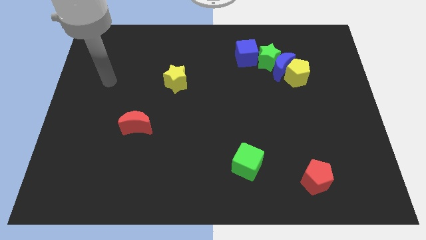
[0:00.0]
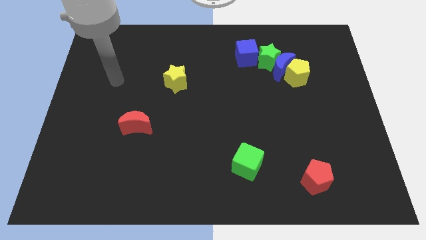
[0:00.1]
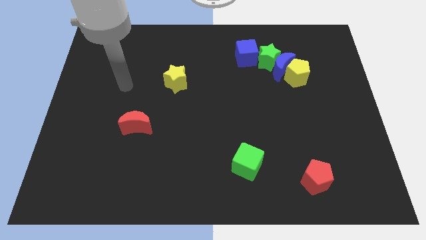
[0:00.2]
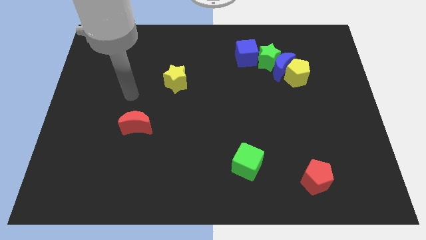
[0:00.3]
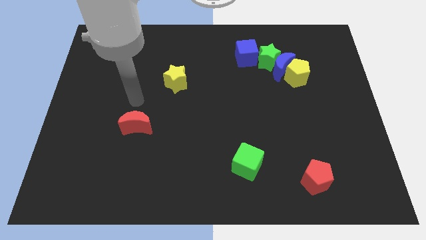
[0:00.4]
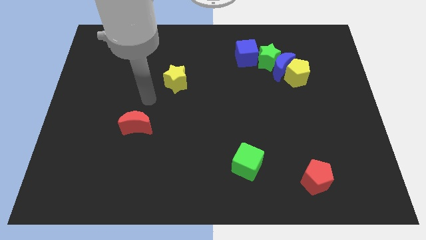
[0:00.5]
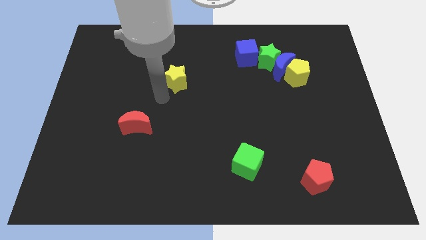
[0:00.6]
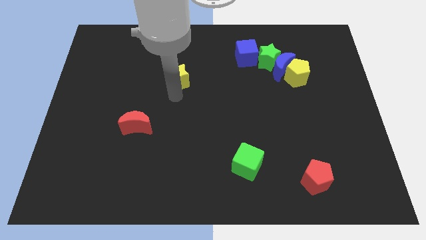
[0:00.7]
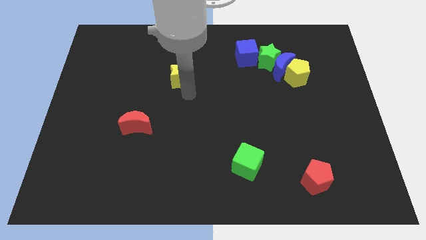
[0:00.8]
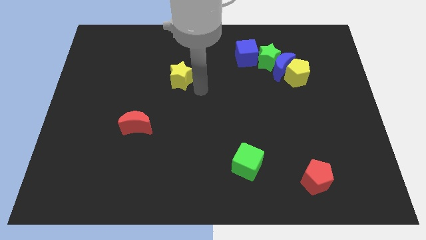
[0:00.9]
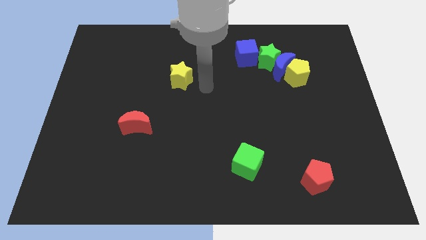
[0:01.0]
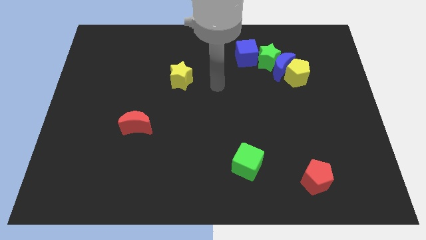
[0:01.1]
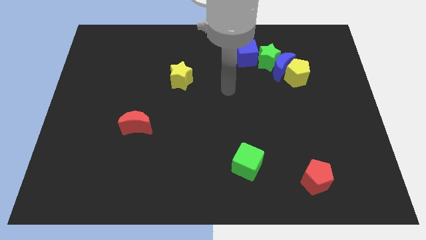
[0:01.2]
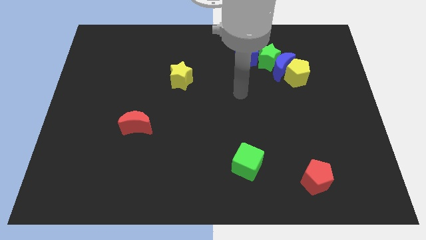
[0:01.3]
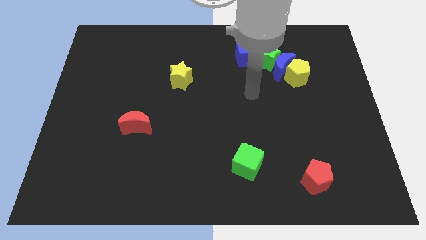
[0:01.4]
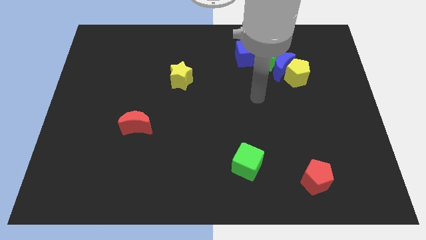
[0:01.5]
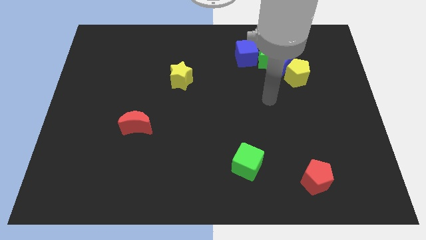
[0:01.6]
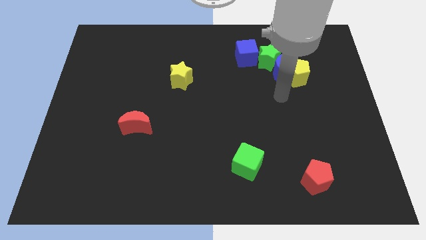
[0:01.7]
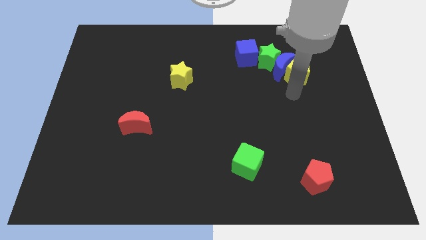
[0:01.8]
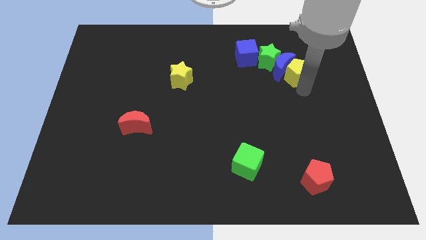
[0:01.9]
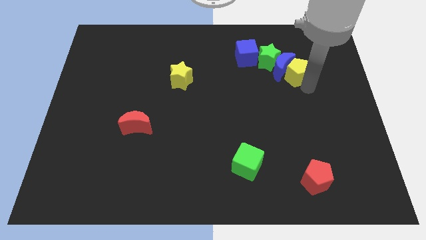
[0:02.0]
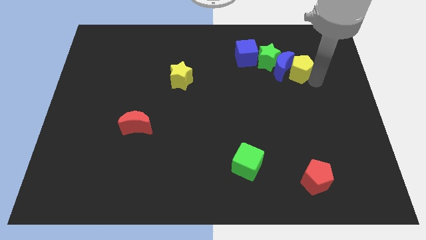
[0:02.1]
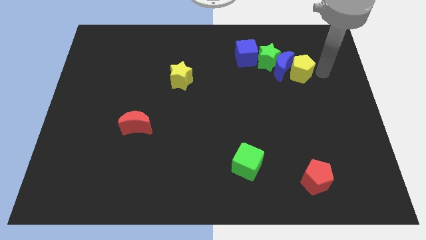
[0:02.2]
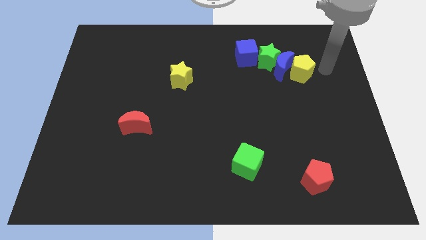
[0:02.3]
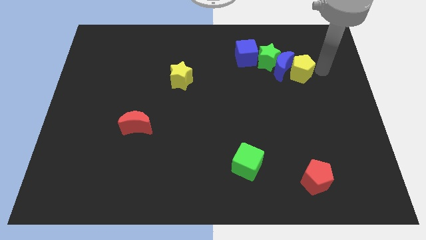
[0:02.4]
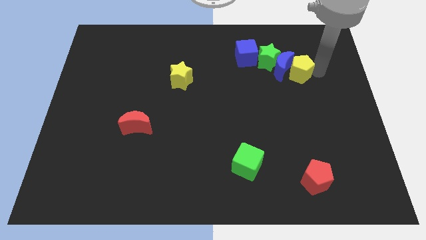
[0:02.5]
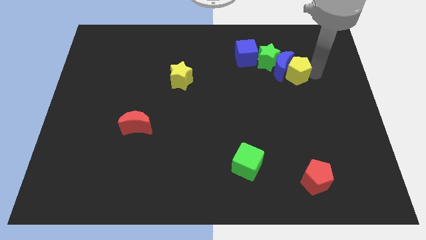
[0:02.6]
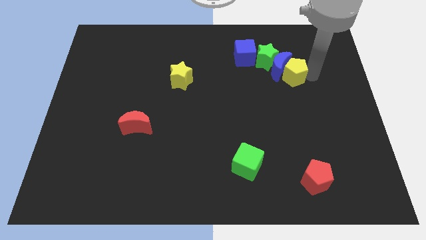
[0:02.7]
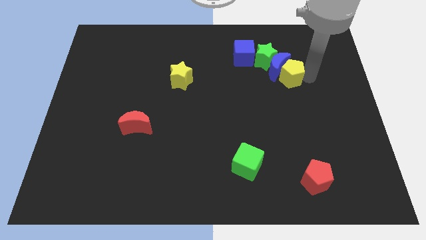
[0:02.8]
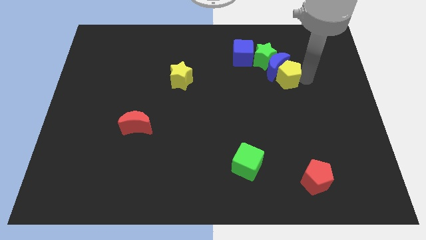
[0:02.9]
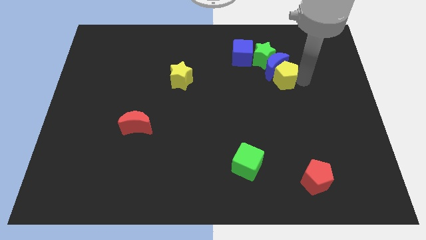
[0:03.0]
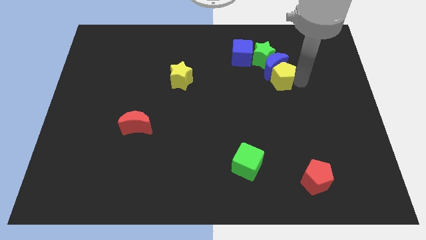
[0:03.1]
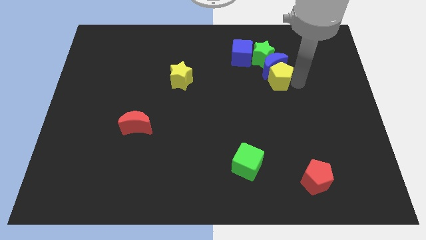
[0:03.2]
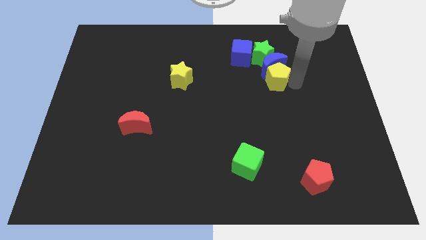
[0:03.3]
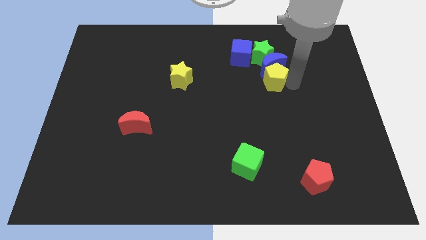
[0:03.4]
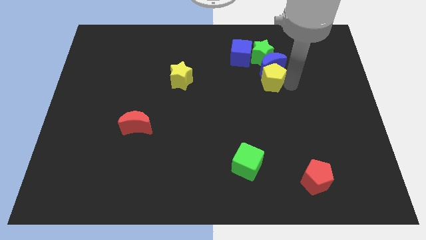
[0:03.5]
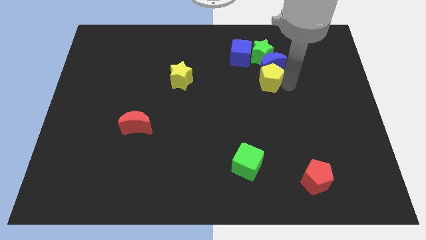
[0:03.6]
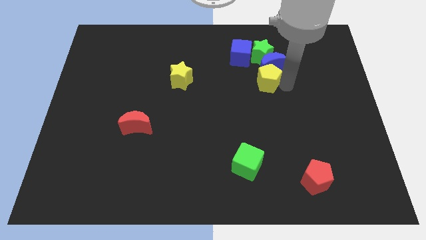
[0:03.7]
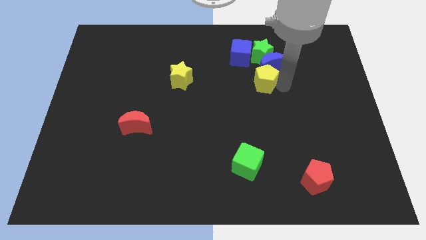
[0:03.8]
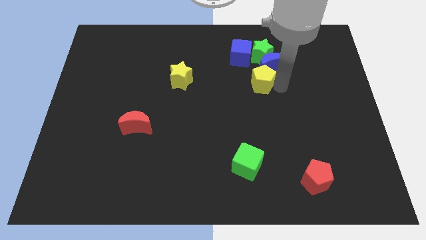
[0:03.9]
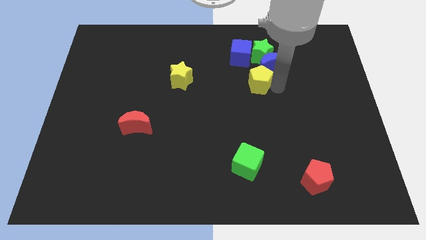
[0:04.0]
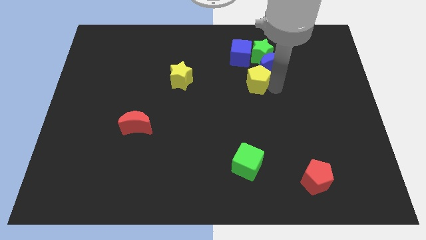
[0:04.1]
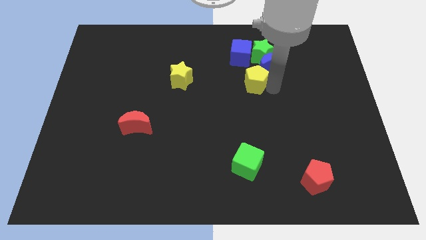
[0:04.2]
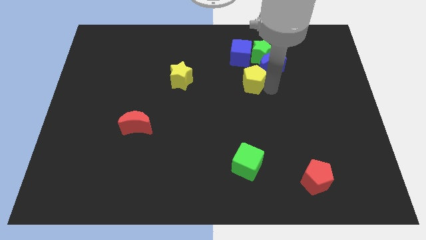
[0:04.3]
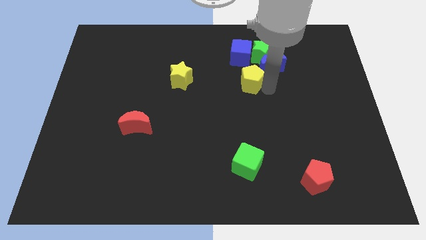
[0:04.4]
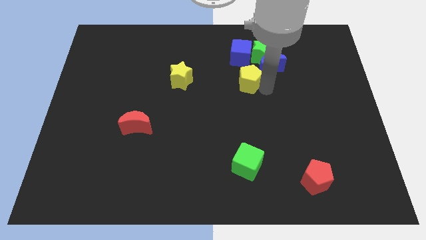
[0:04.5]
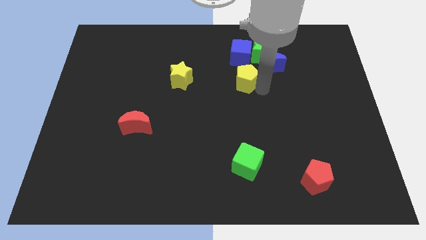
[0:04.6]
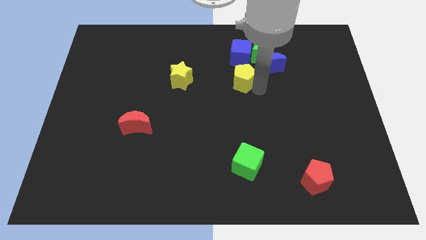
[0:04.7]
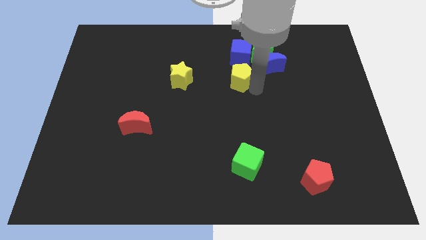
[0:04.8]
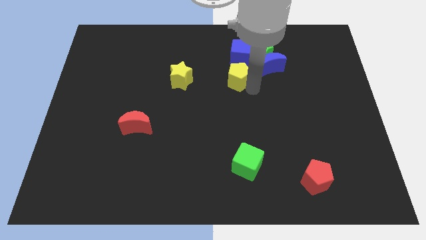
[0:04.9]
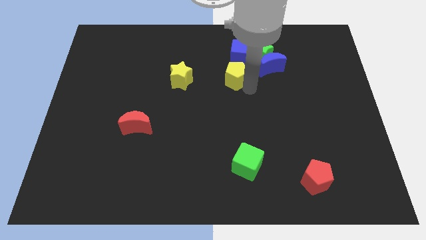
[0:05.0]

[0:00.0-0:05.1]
move the yellow pentagon diagonally down and to the left of the blue cube

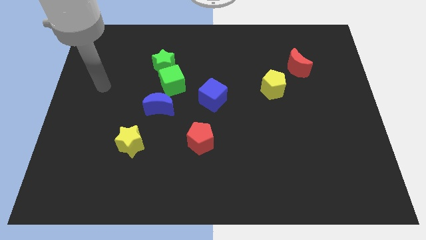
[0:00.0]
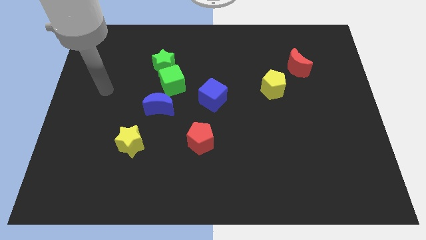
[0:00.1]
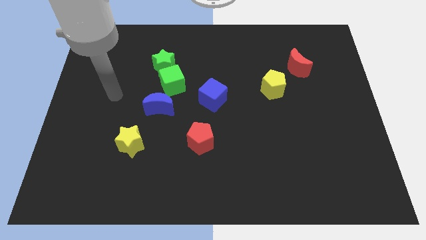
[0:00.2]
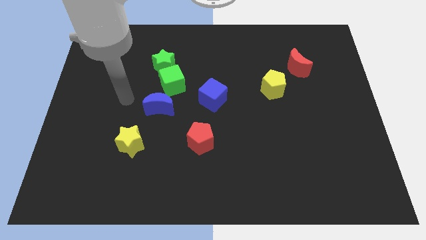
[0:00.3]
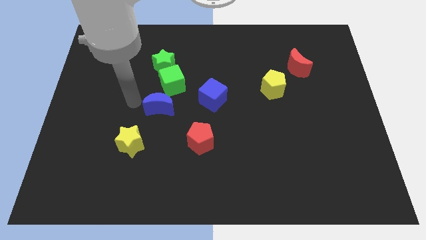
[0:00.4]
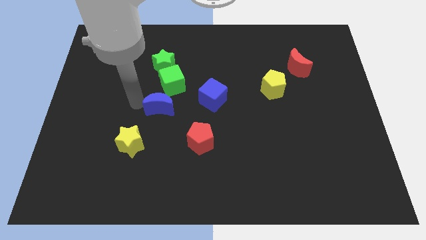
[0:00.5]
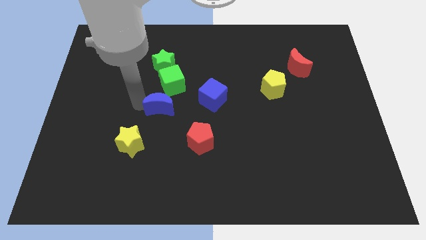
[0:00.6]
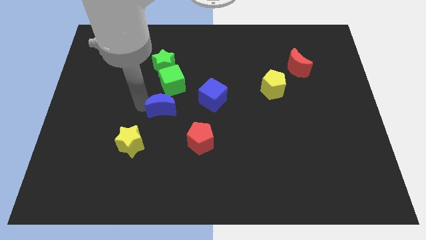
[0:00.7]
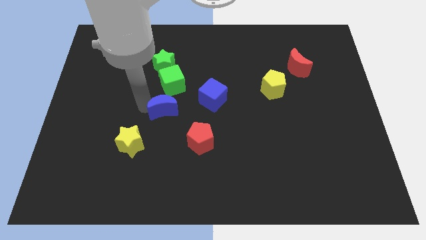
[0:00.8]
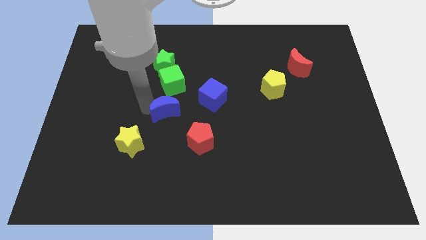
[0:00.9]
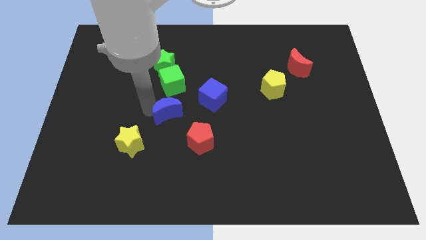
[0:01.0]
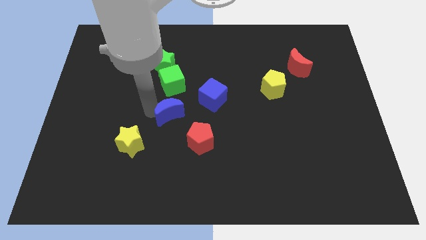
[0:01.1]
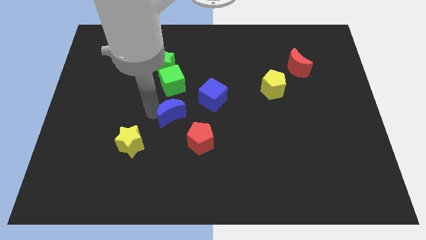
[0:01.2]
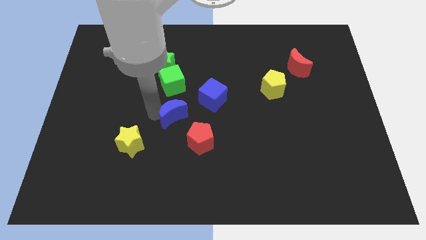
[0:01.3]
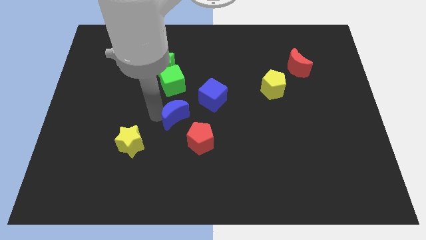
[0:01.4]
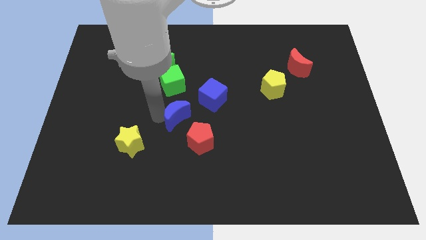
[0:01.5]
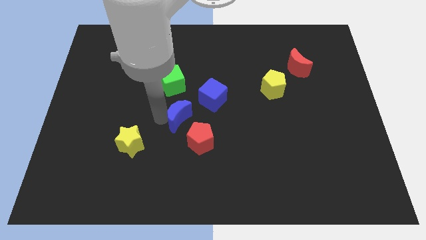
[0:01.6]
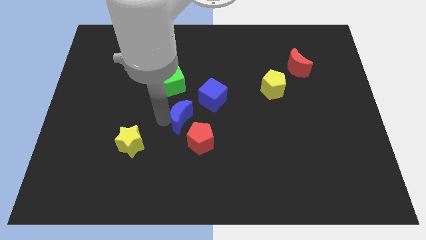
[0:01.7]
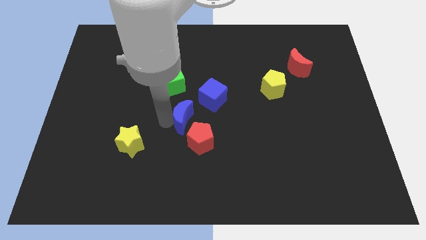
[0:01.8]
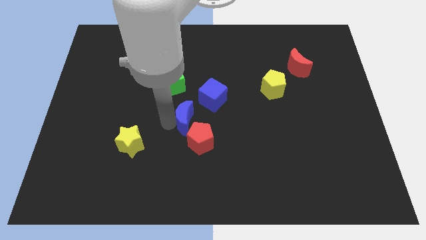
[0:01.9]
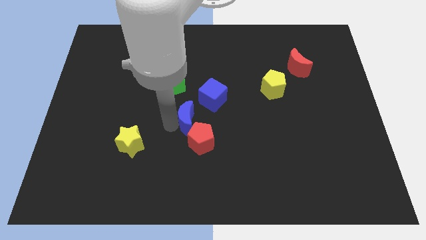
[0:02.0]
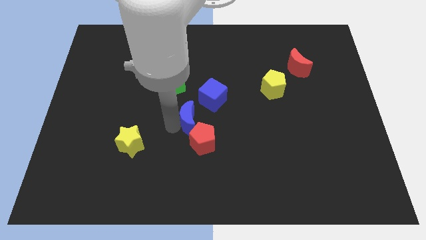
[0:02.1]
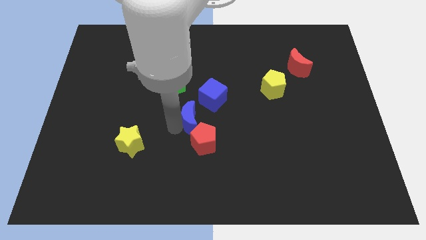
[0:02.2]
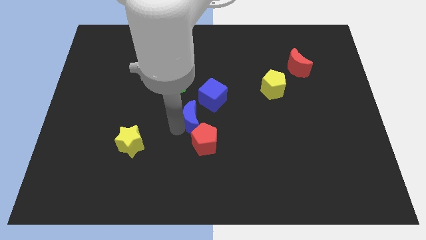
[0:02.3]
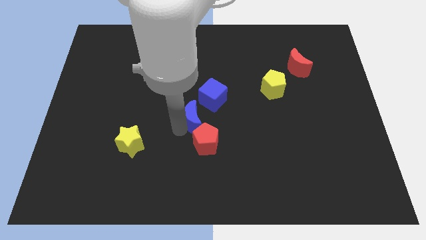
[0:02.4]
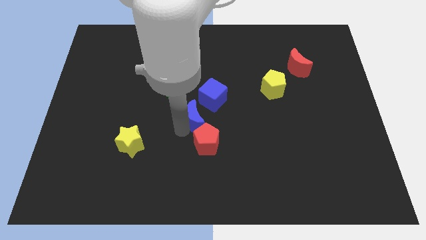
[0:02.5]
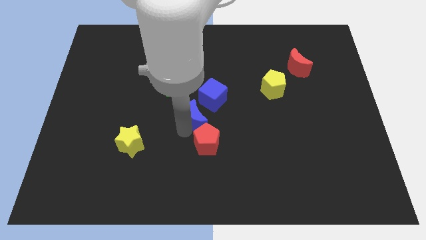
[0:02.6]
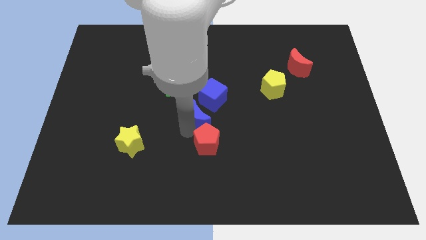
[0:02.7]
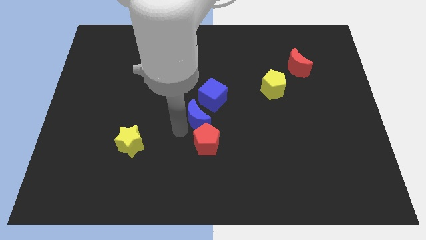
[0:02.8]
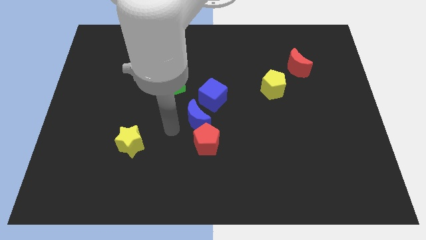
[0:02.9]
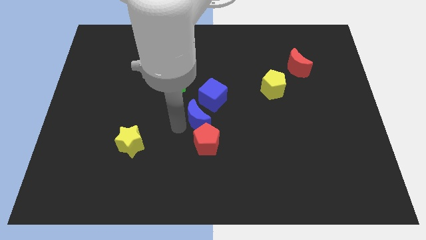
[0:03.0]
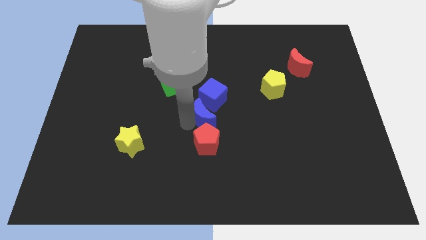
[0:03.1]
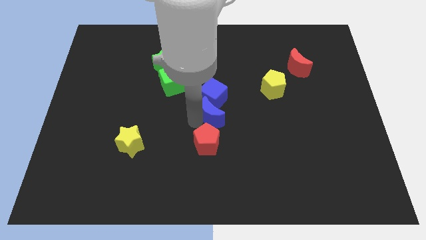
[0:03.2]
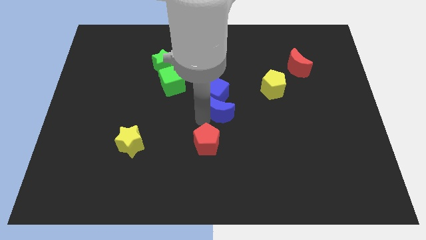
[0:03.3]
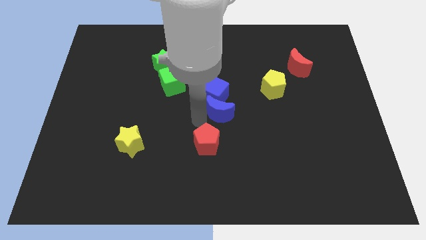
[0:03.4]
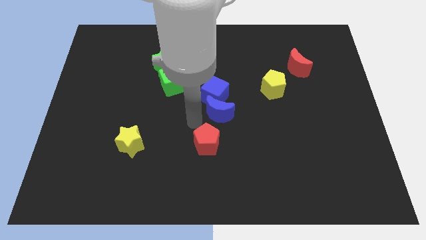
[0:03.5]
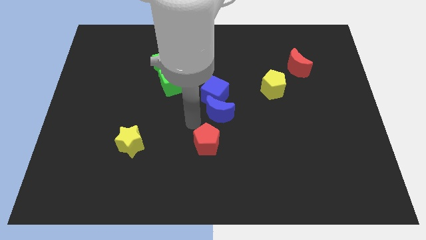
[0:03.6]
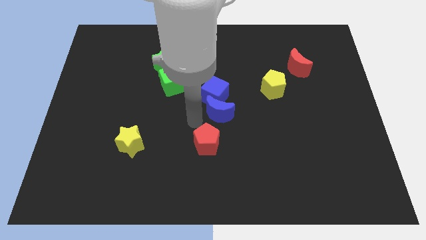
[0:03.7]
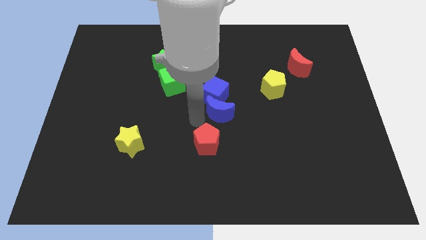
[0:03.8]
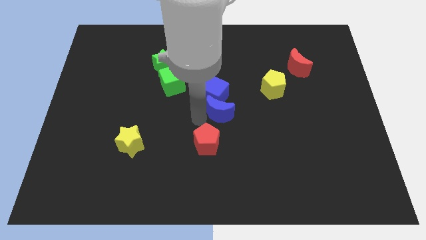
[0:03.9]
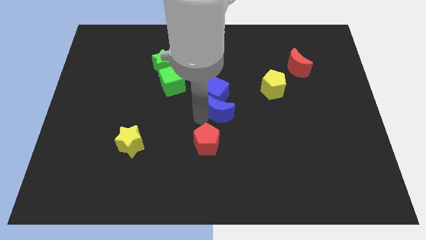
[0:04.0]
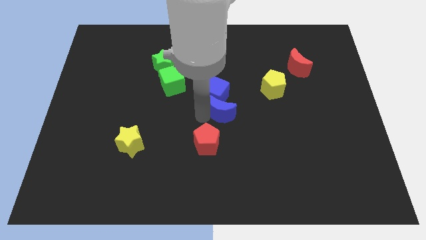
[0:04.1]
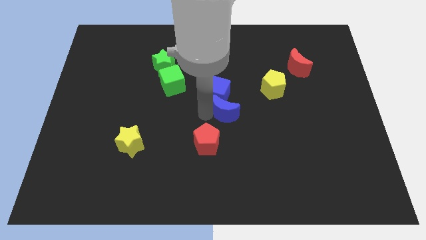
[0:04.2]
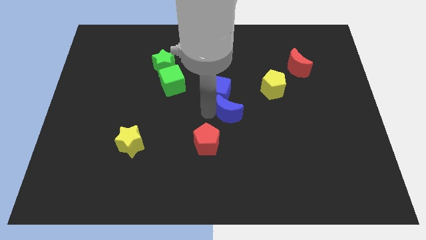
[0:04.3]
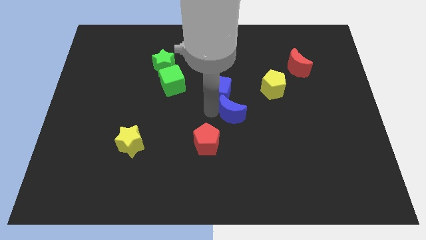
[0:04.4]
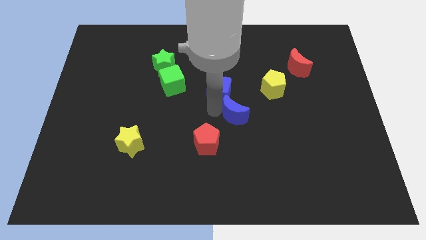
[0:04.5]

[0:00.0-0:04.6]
push the blue moon to the bottom left of the yellow pentagon
